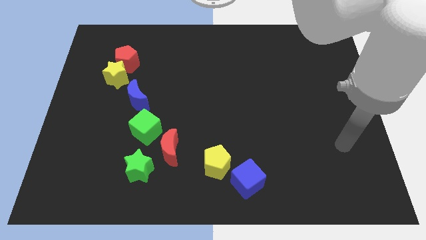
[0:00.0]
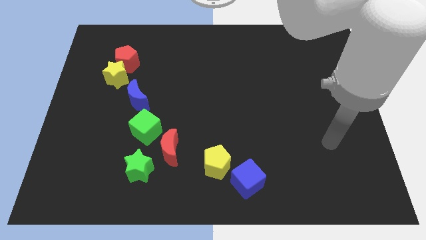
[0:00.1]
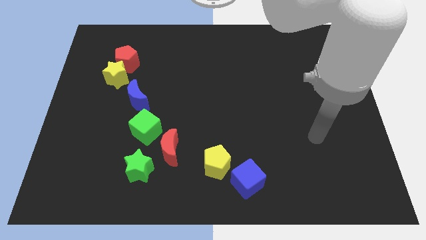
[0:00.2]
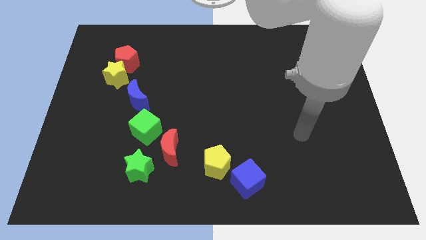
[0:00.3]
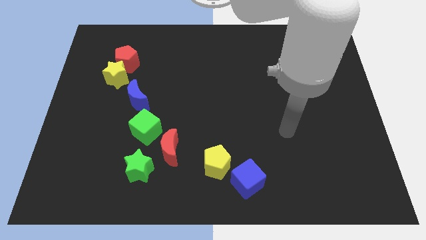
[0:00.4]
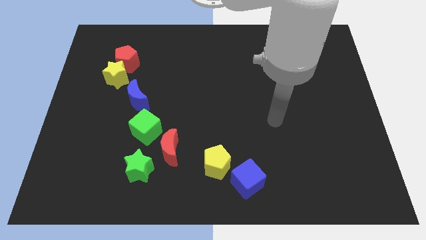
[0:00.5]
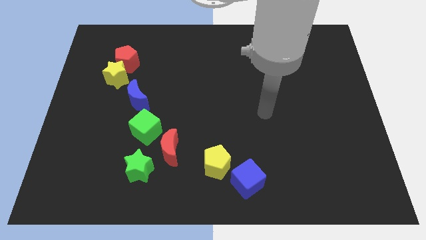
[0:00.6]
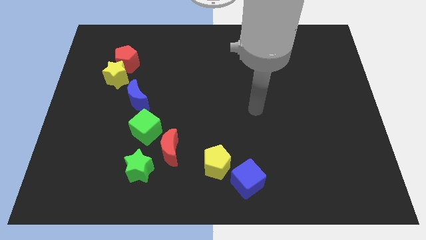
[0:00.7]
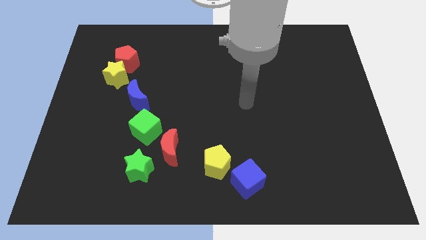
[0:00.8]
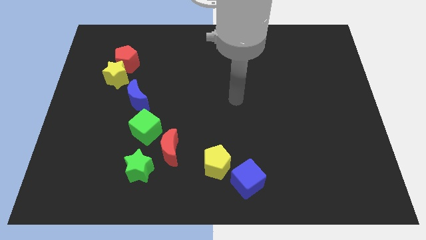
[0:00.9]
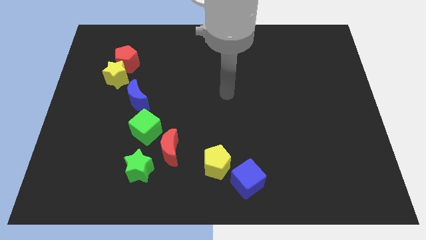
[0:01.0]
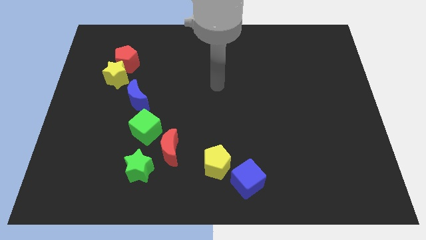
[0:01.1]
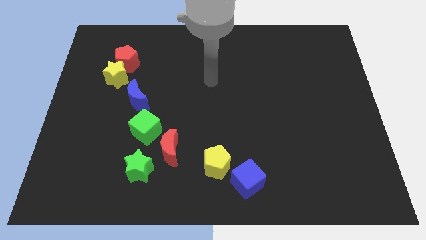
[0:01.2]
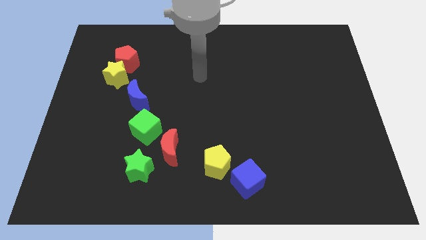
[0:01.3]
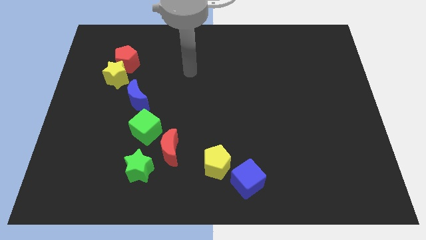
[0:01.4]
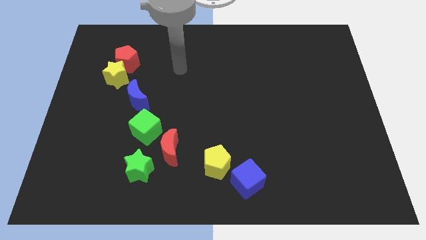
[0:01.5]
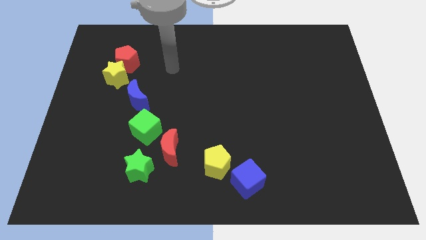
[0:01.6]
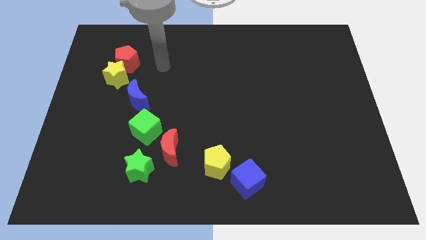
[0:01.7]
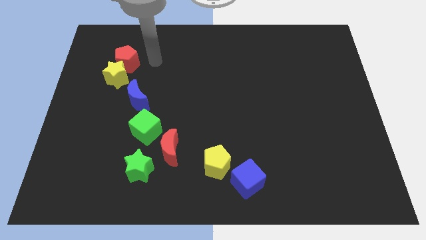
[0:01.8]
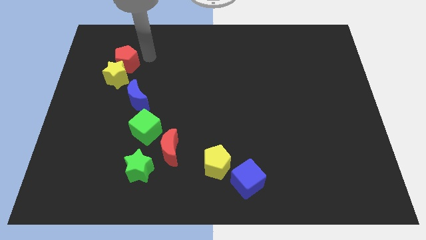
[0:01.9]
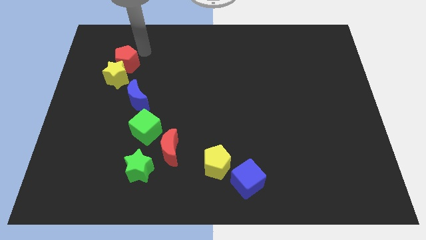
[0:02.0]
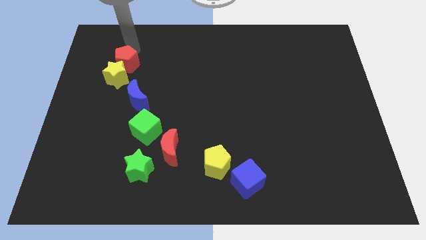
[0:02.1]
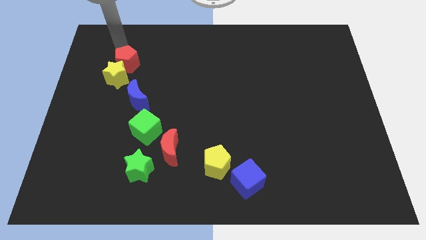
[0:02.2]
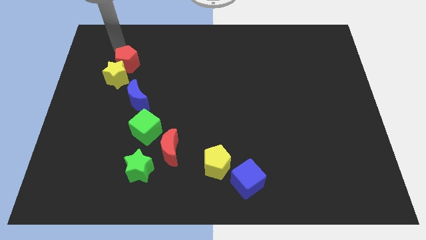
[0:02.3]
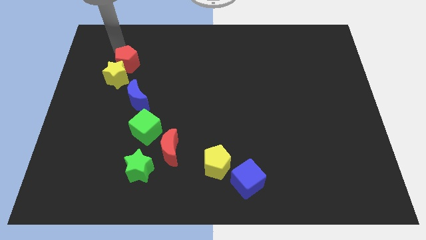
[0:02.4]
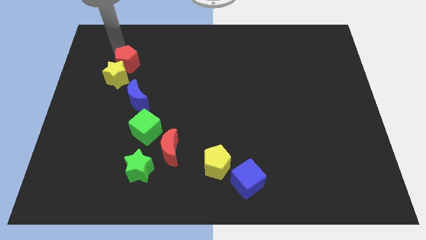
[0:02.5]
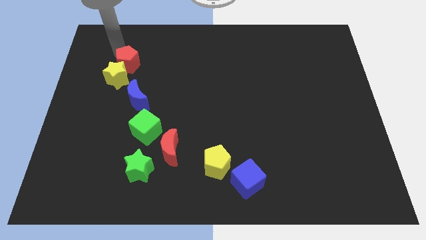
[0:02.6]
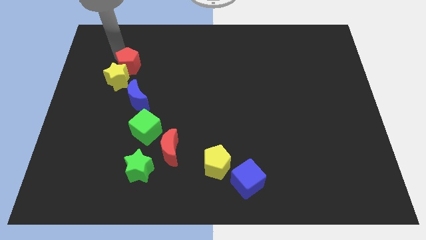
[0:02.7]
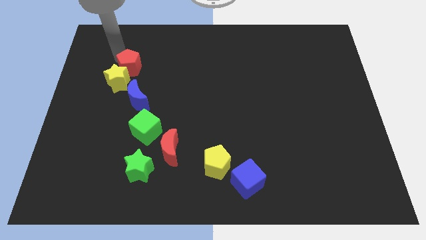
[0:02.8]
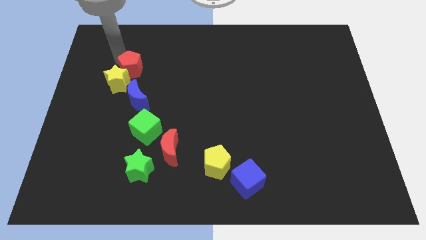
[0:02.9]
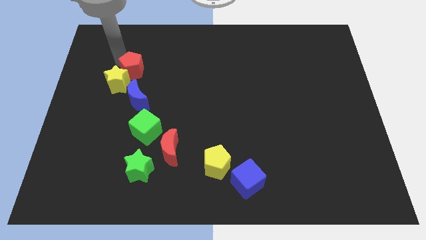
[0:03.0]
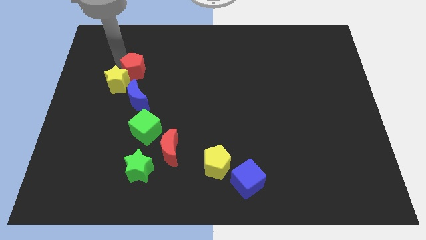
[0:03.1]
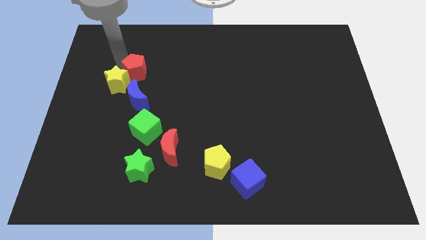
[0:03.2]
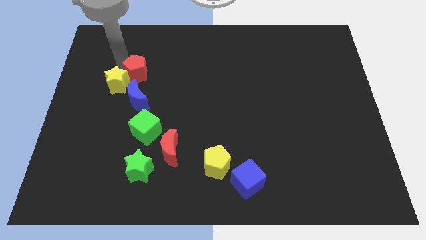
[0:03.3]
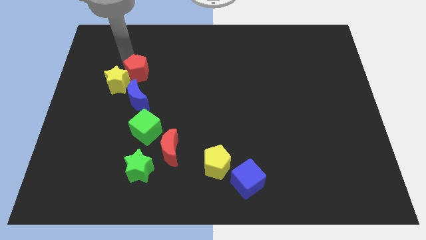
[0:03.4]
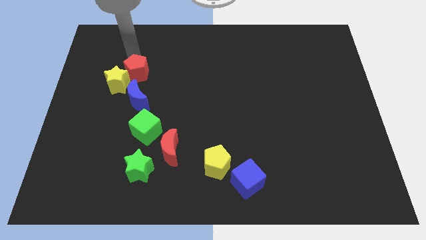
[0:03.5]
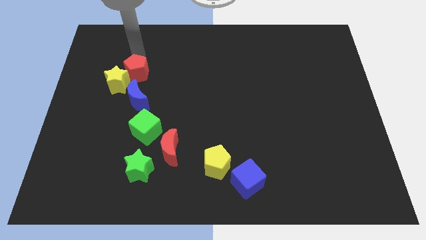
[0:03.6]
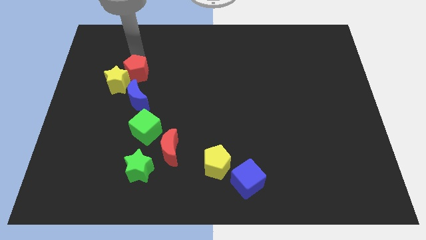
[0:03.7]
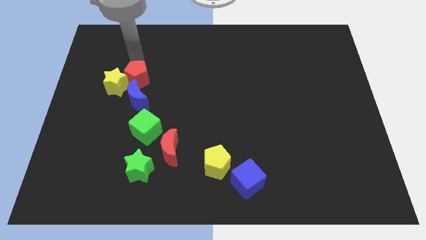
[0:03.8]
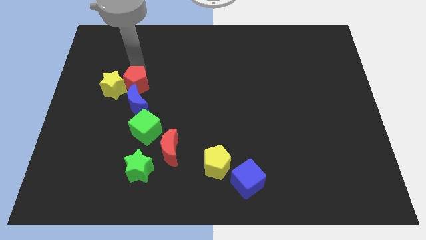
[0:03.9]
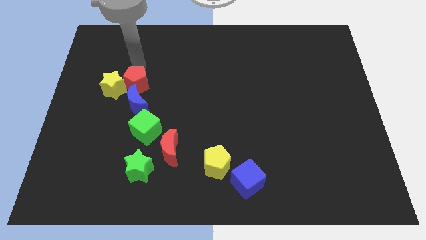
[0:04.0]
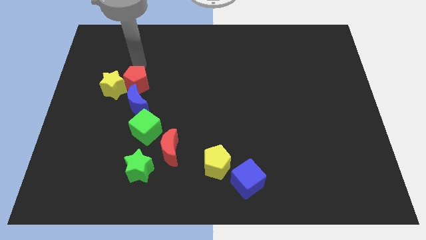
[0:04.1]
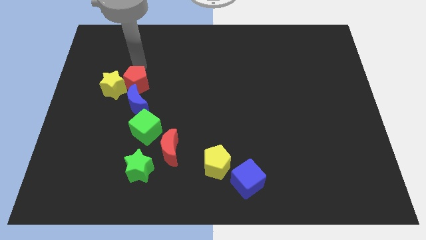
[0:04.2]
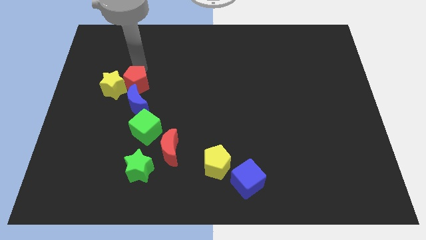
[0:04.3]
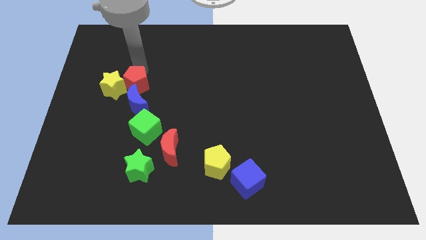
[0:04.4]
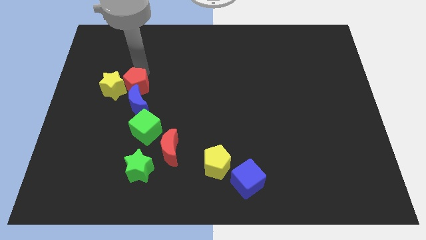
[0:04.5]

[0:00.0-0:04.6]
move the red pentagon to the blue moon

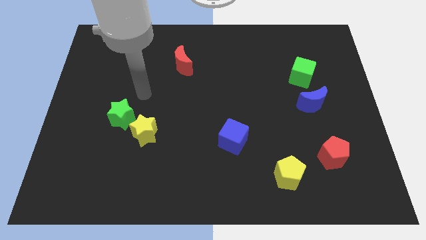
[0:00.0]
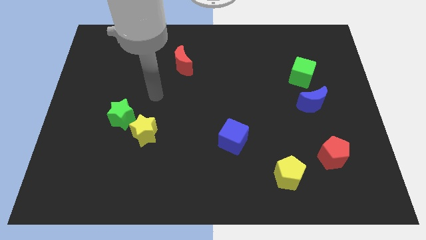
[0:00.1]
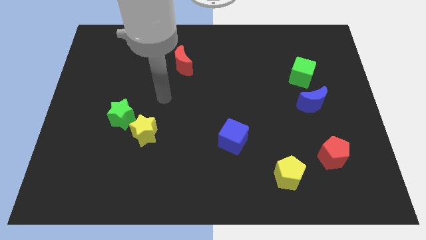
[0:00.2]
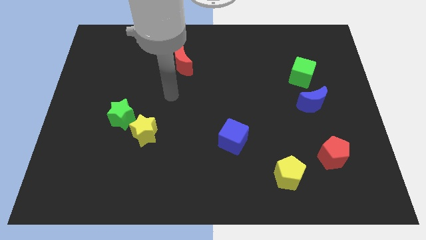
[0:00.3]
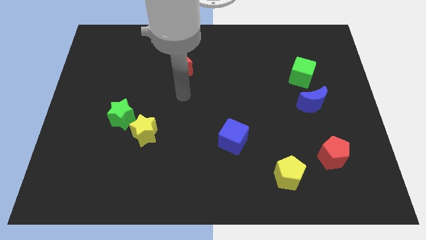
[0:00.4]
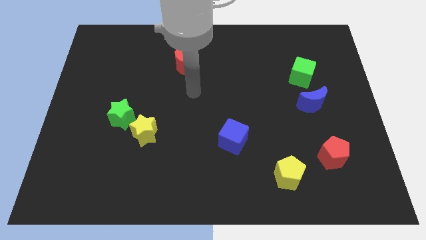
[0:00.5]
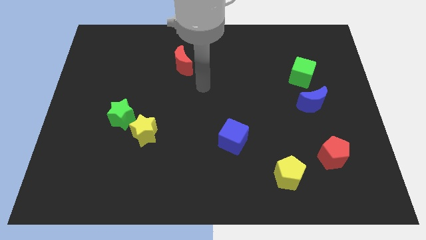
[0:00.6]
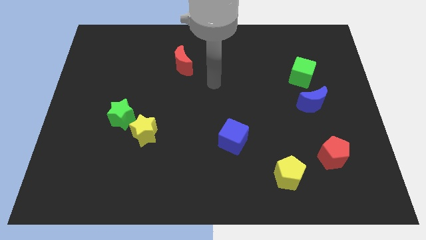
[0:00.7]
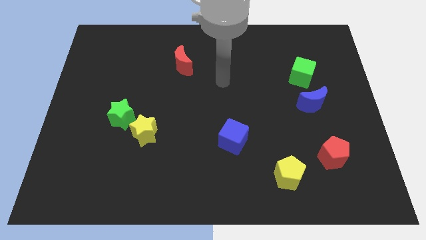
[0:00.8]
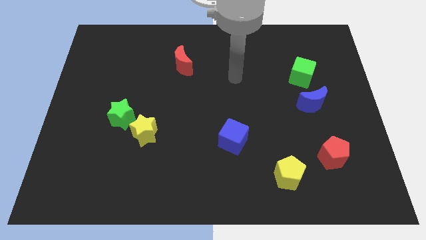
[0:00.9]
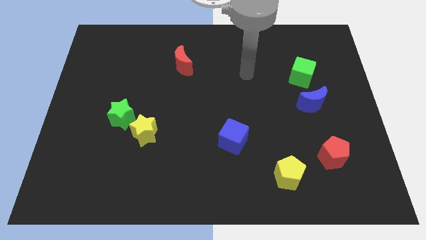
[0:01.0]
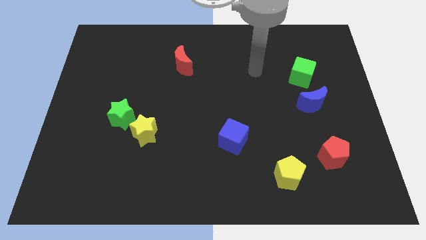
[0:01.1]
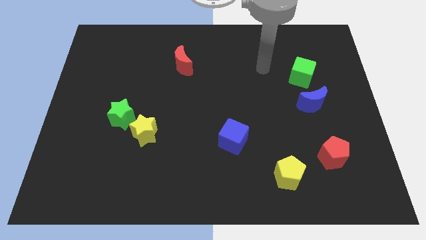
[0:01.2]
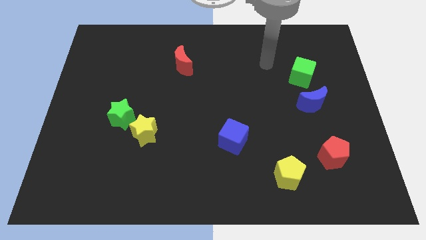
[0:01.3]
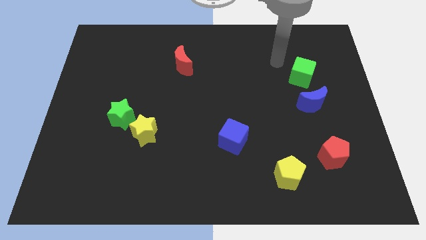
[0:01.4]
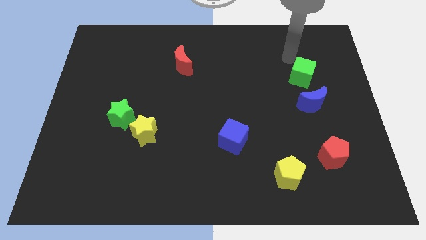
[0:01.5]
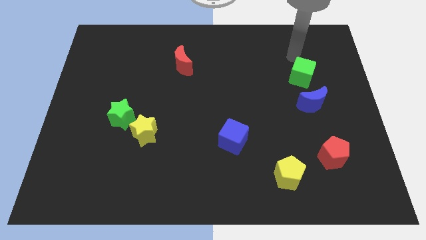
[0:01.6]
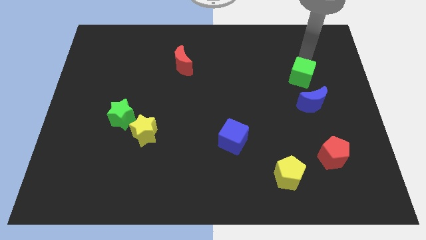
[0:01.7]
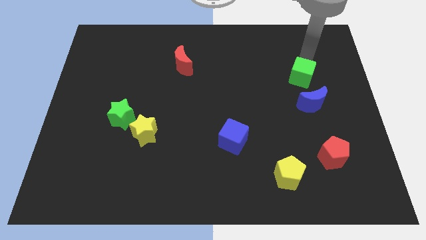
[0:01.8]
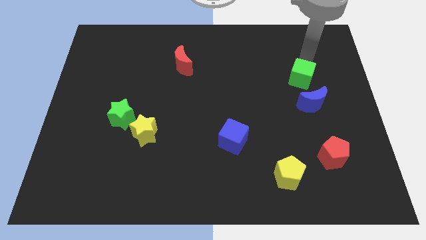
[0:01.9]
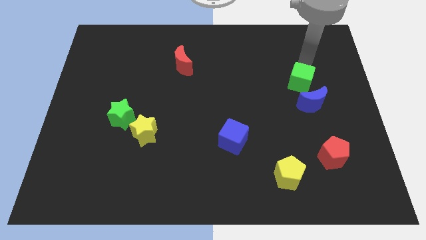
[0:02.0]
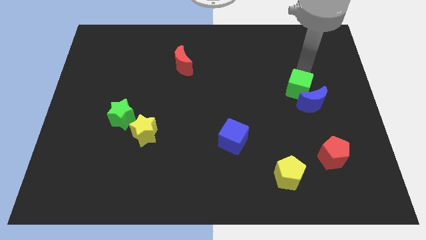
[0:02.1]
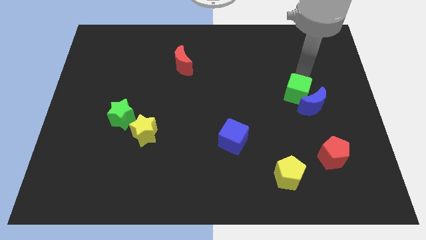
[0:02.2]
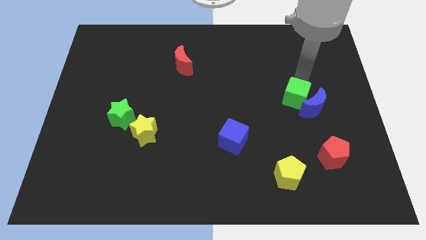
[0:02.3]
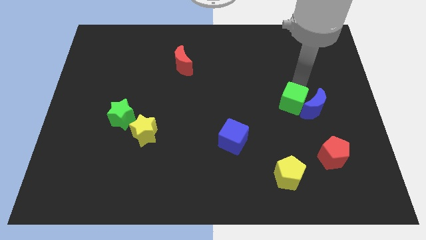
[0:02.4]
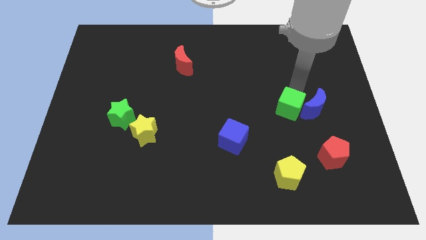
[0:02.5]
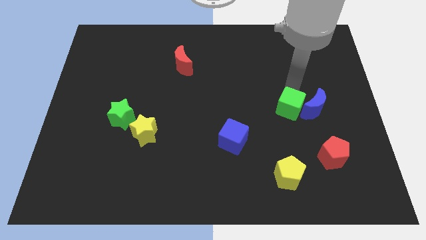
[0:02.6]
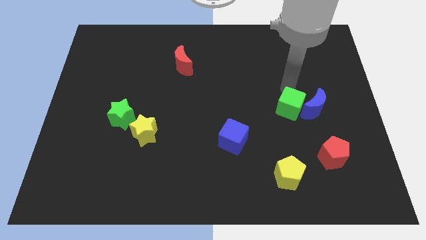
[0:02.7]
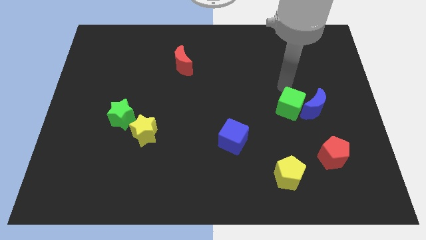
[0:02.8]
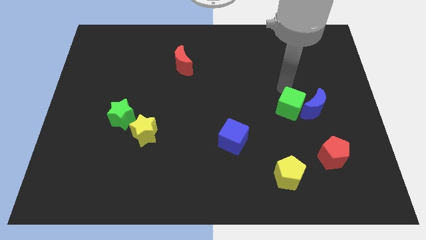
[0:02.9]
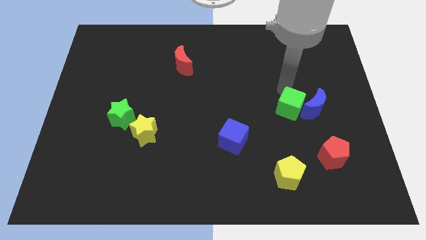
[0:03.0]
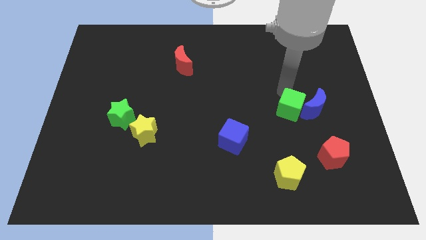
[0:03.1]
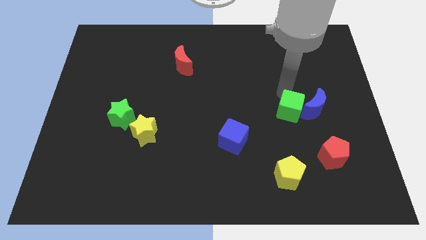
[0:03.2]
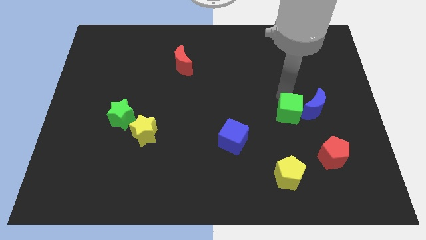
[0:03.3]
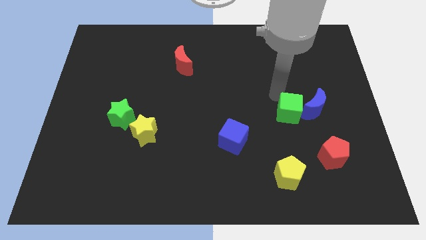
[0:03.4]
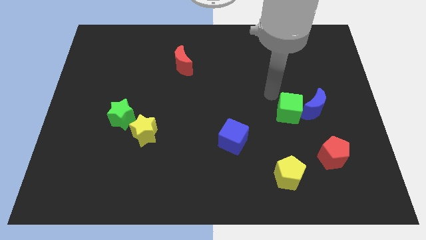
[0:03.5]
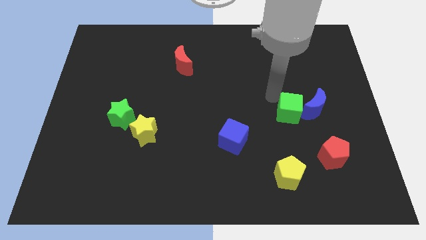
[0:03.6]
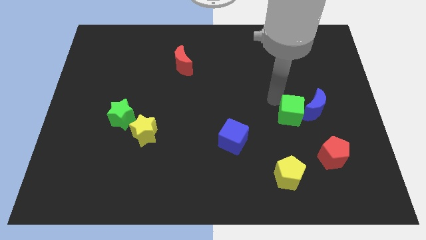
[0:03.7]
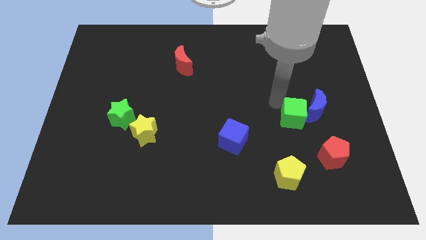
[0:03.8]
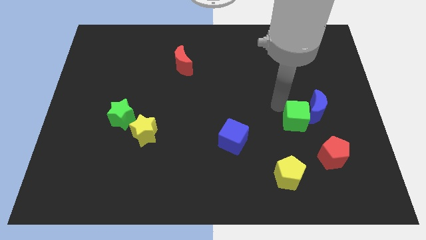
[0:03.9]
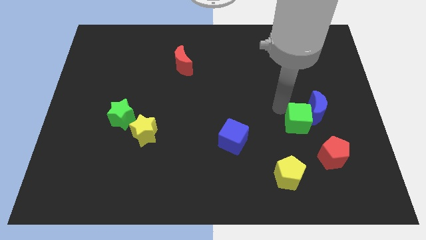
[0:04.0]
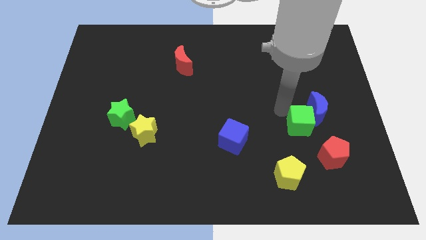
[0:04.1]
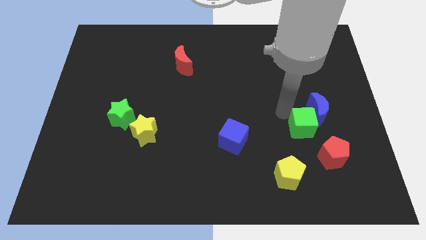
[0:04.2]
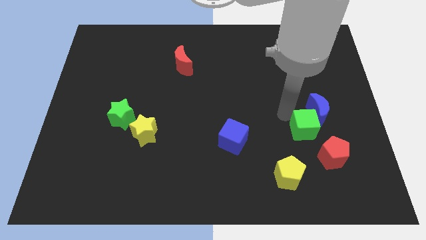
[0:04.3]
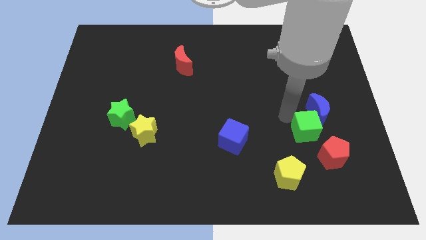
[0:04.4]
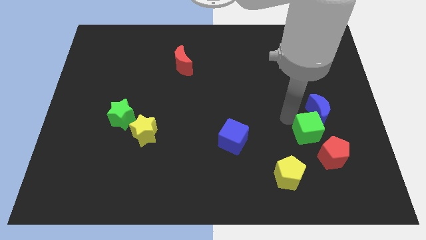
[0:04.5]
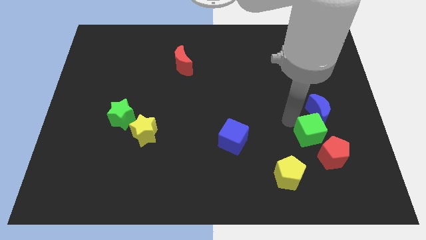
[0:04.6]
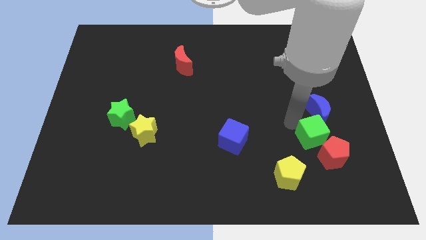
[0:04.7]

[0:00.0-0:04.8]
put the green cube close to the red pentagon
